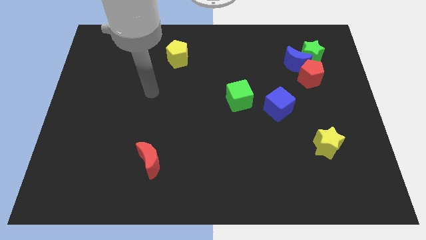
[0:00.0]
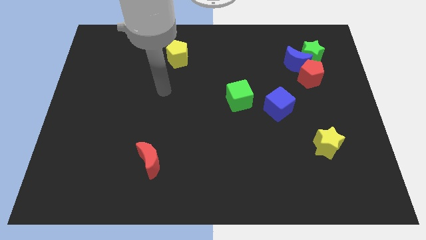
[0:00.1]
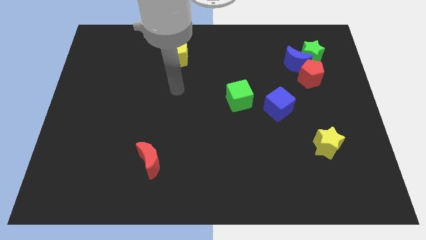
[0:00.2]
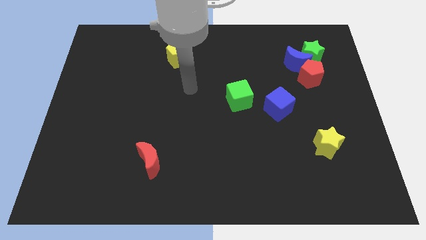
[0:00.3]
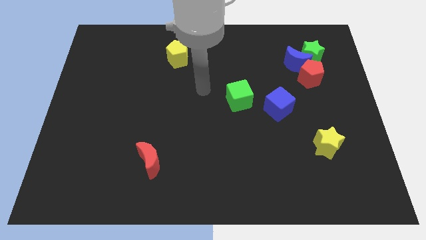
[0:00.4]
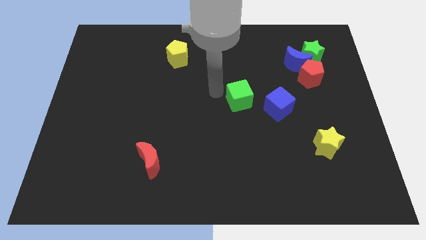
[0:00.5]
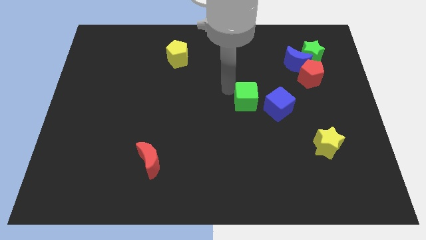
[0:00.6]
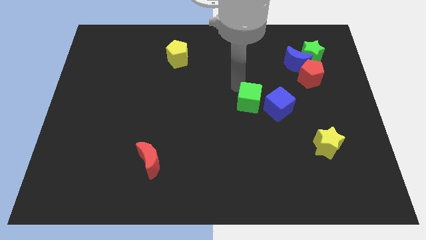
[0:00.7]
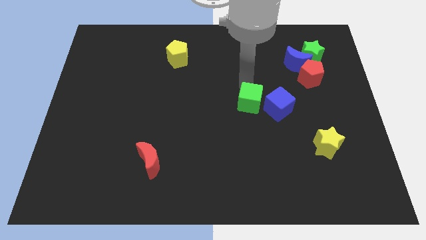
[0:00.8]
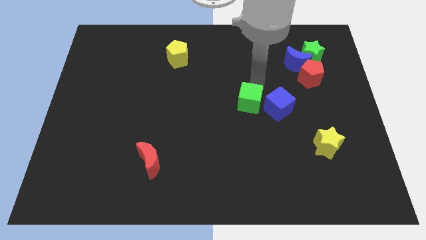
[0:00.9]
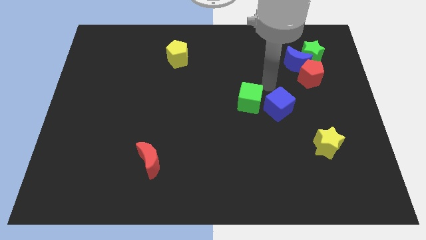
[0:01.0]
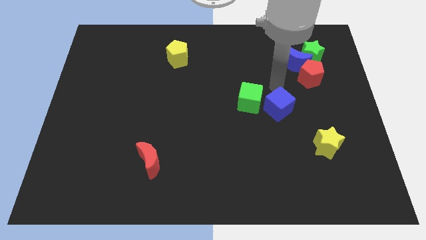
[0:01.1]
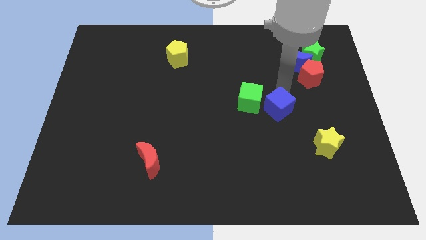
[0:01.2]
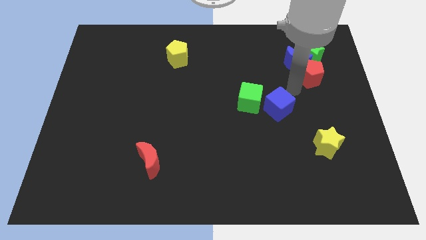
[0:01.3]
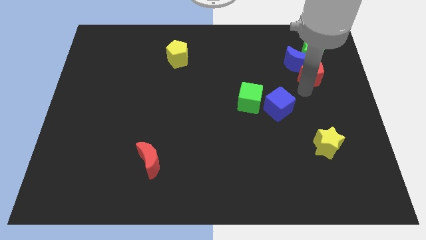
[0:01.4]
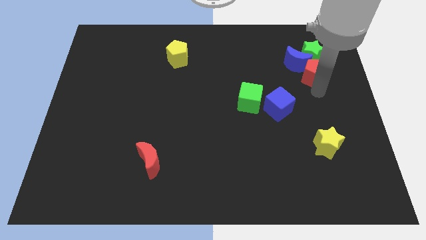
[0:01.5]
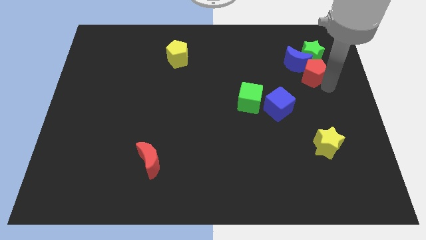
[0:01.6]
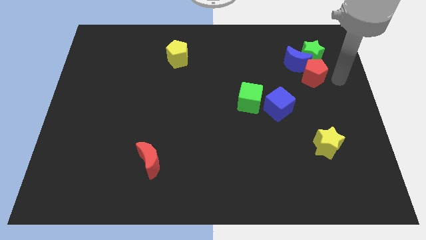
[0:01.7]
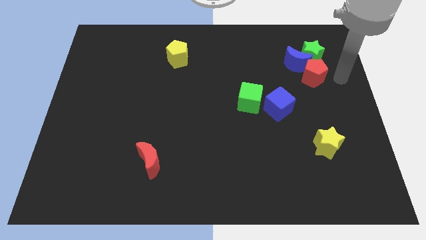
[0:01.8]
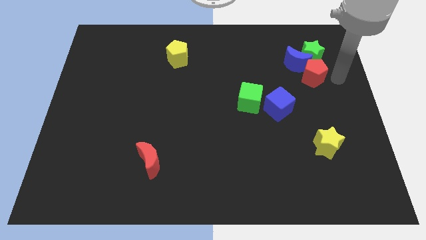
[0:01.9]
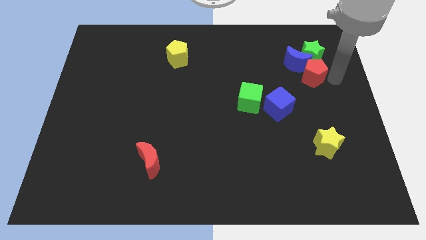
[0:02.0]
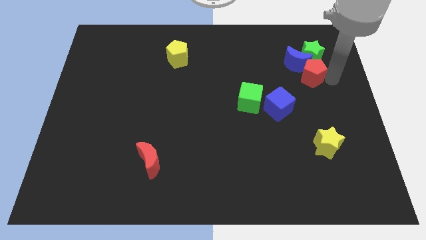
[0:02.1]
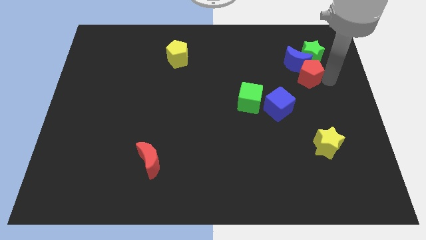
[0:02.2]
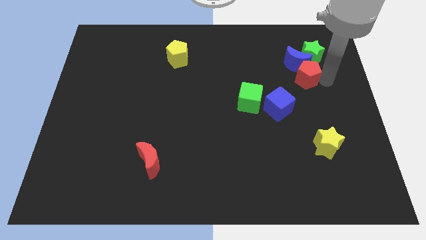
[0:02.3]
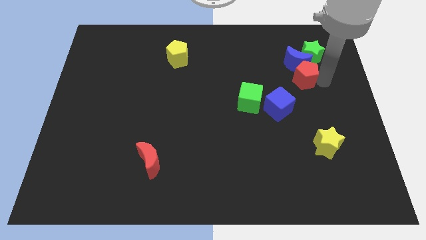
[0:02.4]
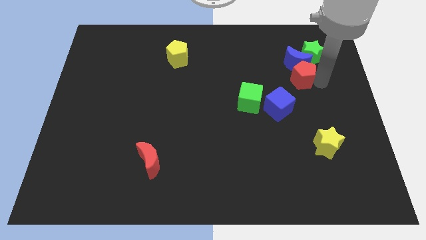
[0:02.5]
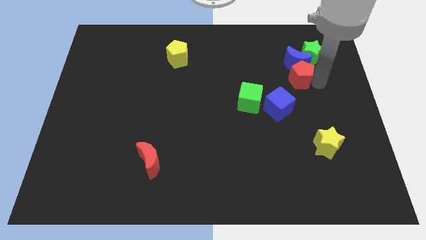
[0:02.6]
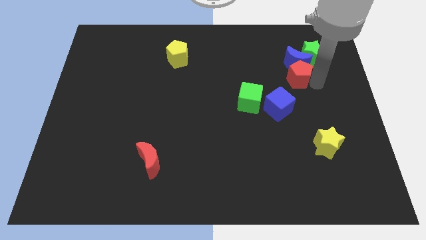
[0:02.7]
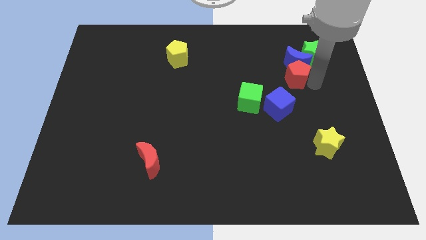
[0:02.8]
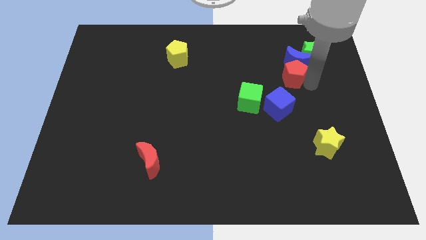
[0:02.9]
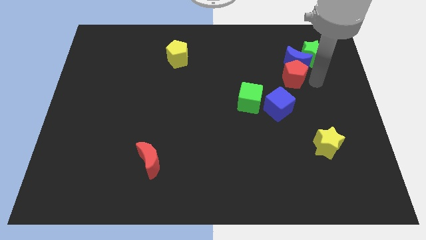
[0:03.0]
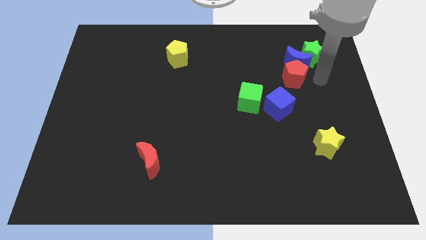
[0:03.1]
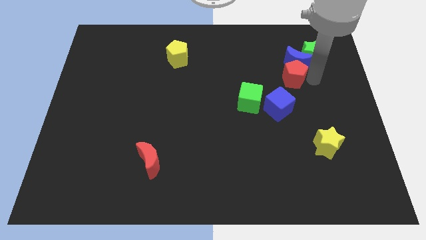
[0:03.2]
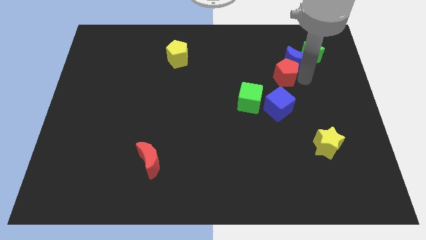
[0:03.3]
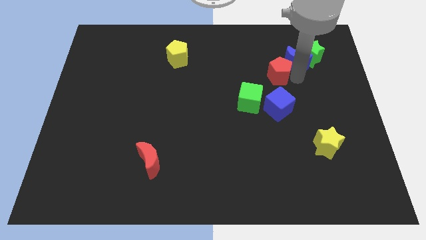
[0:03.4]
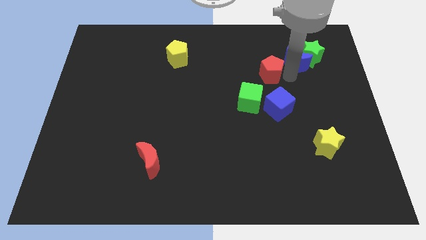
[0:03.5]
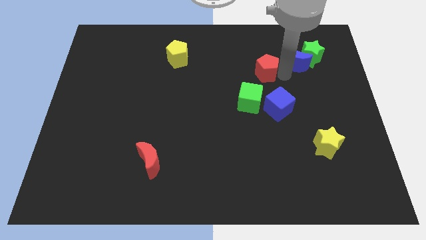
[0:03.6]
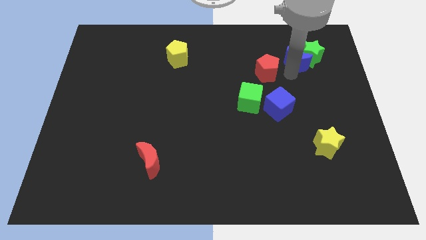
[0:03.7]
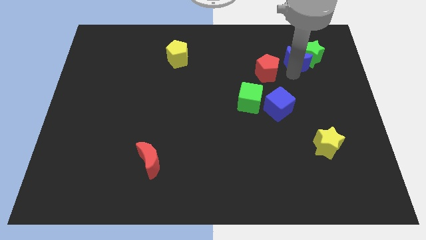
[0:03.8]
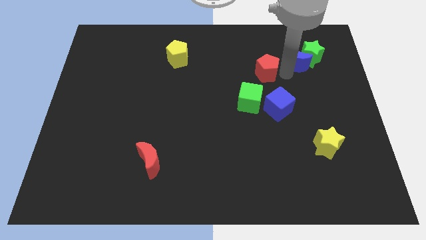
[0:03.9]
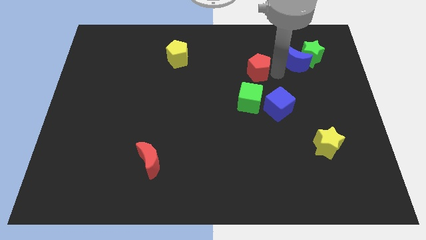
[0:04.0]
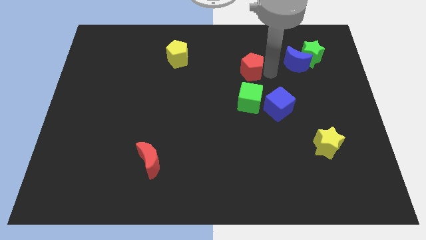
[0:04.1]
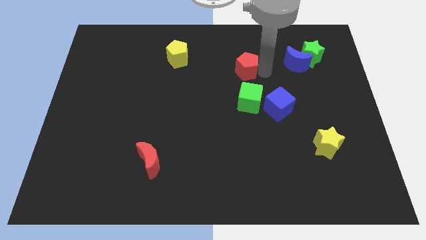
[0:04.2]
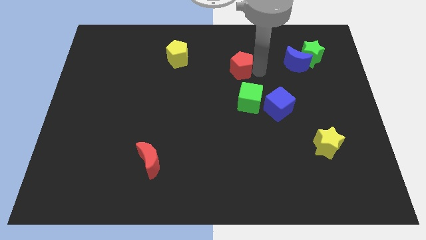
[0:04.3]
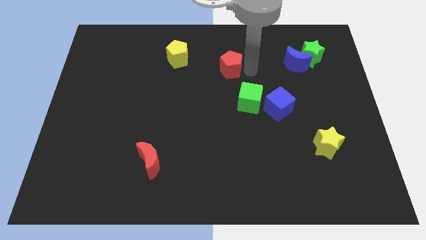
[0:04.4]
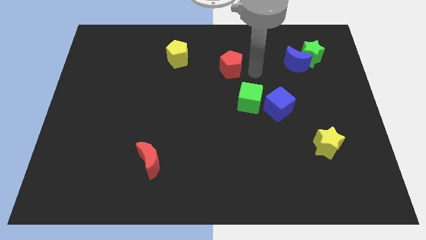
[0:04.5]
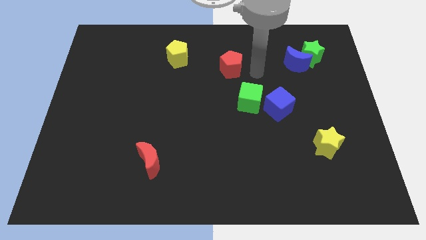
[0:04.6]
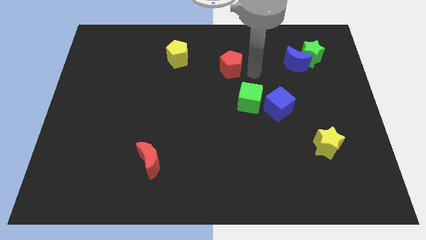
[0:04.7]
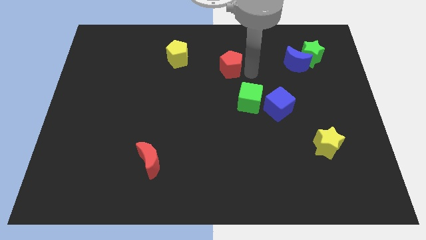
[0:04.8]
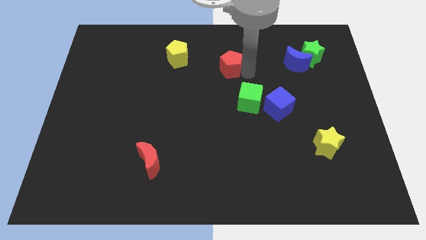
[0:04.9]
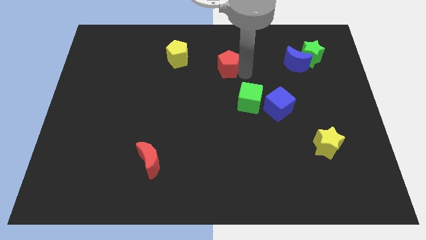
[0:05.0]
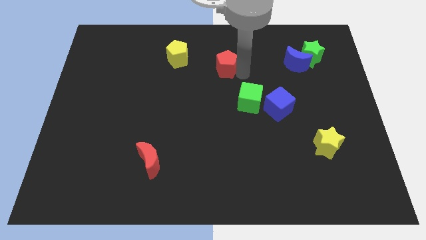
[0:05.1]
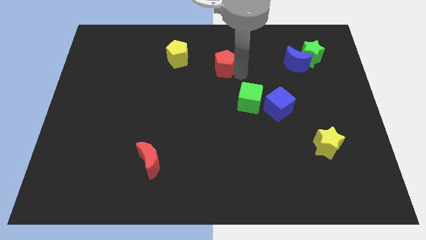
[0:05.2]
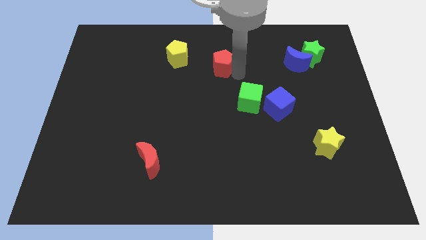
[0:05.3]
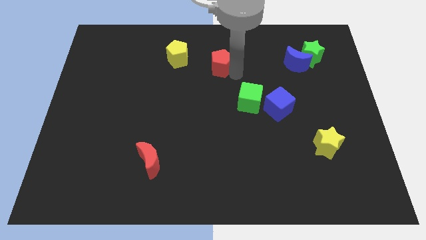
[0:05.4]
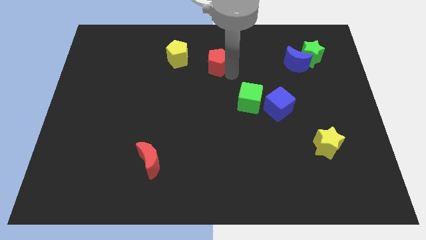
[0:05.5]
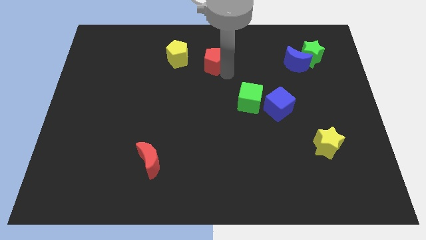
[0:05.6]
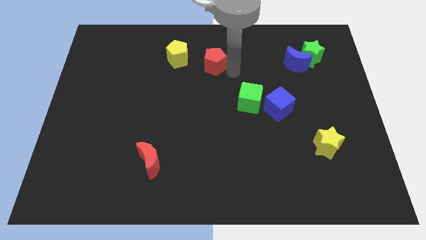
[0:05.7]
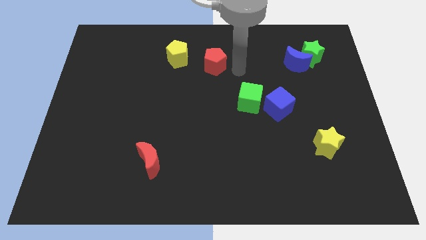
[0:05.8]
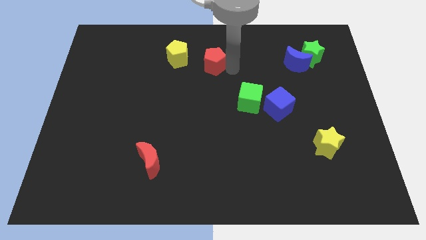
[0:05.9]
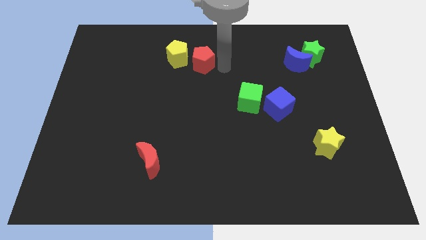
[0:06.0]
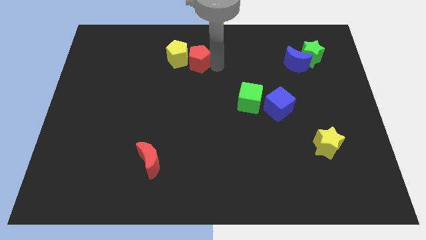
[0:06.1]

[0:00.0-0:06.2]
slide the red pentagon next to the yellow pentagon

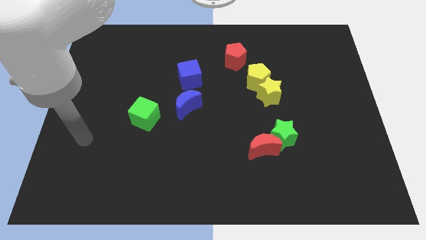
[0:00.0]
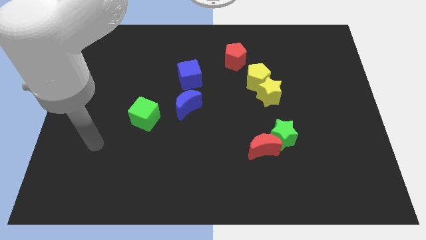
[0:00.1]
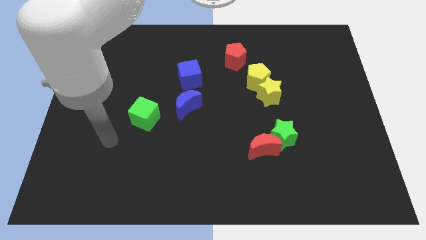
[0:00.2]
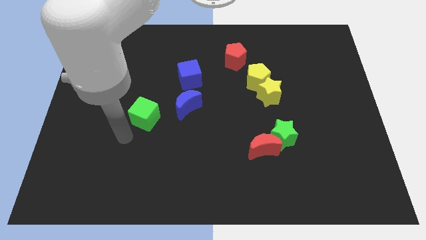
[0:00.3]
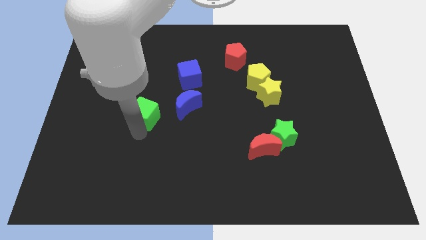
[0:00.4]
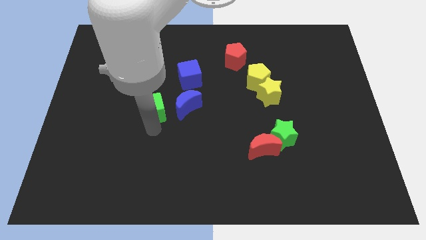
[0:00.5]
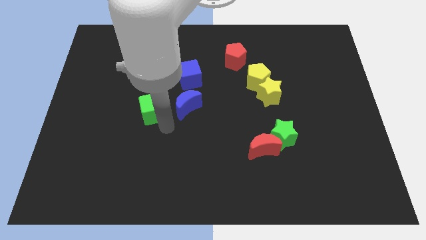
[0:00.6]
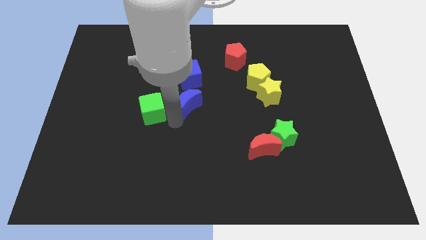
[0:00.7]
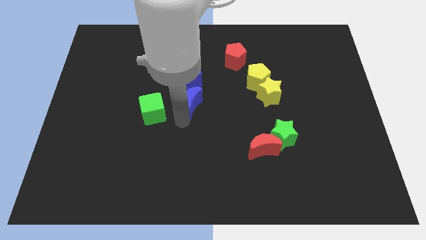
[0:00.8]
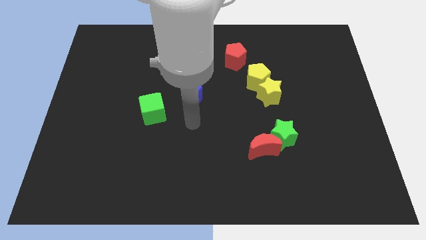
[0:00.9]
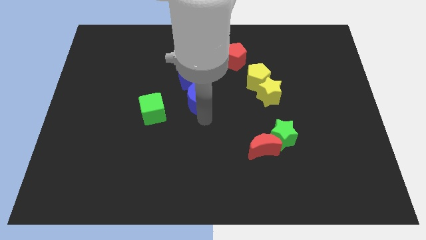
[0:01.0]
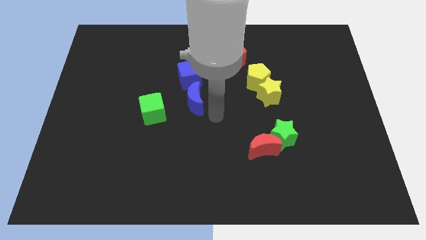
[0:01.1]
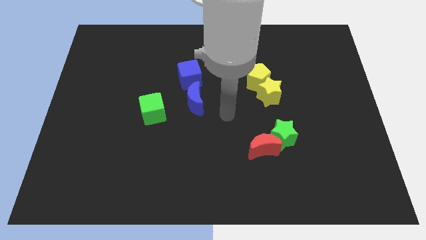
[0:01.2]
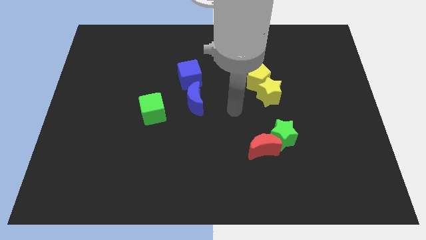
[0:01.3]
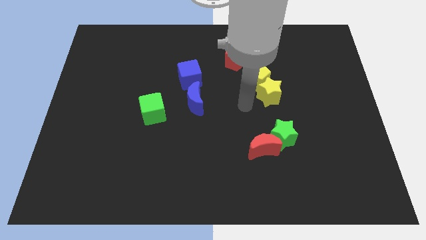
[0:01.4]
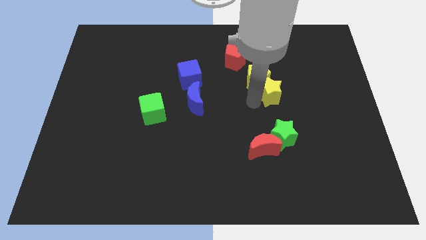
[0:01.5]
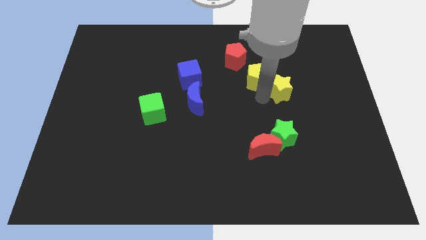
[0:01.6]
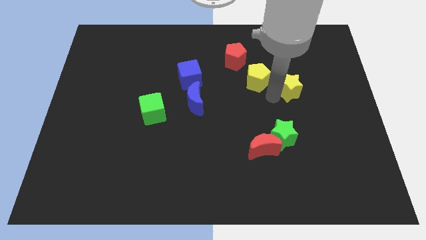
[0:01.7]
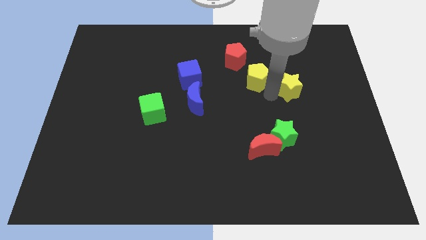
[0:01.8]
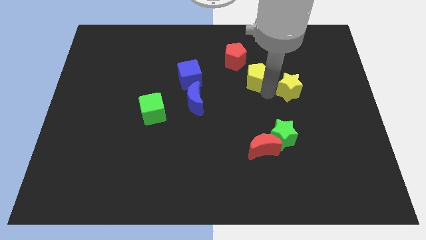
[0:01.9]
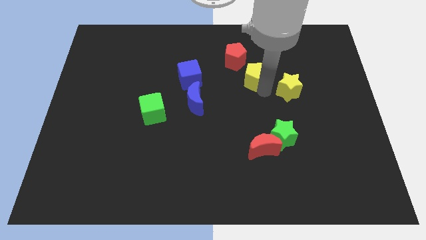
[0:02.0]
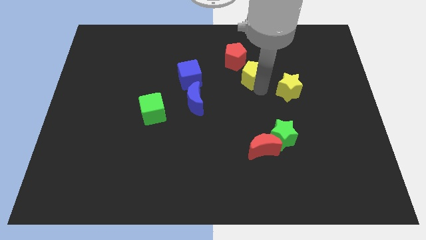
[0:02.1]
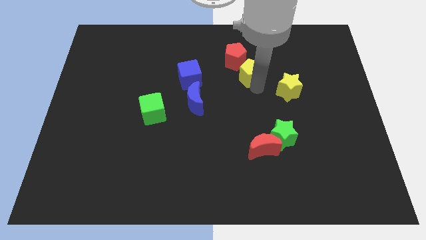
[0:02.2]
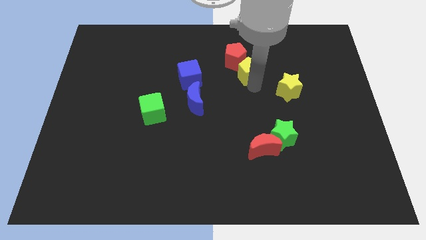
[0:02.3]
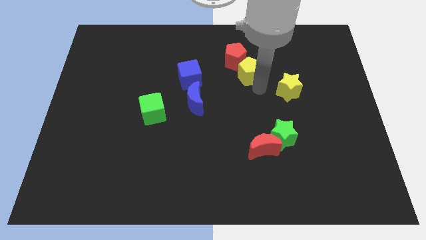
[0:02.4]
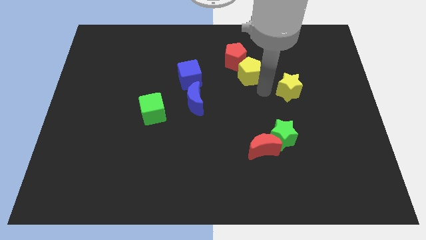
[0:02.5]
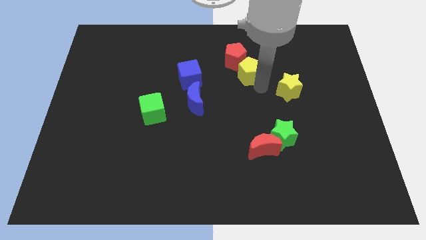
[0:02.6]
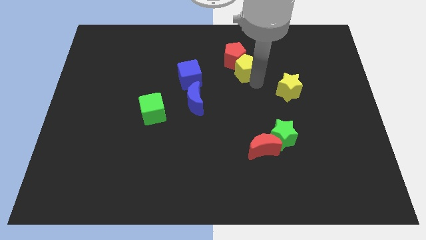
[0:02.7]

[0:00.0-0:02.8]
push the yellow pentagon next to the red pentagon
